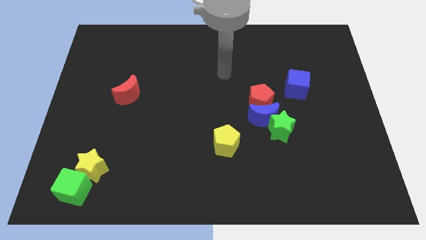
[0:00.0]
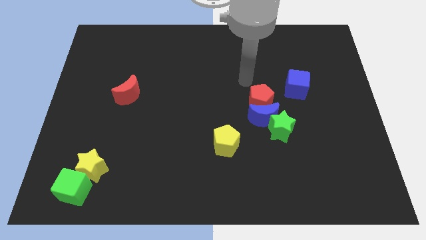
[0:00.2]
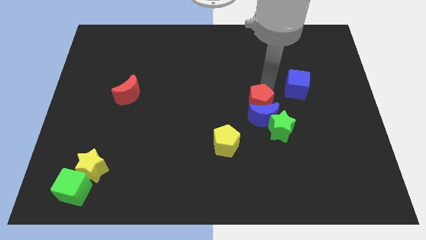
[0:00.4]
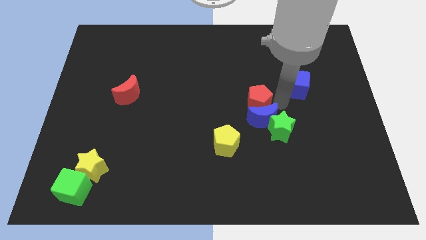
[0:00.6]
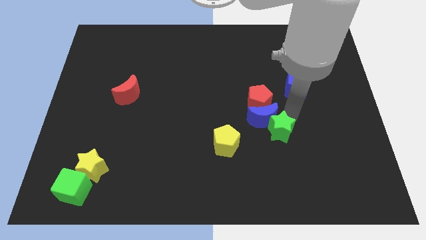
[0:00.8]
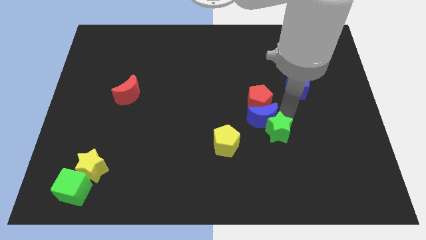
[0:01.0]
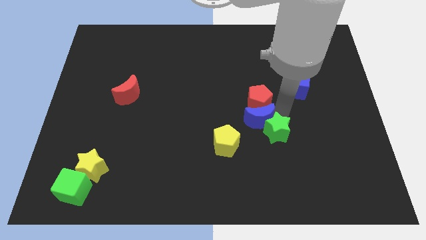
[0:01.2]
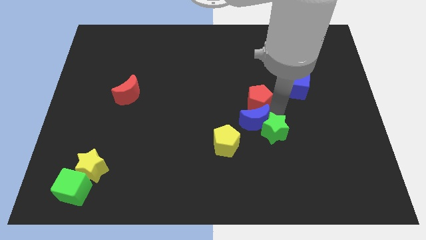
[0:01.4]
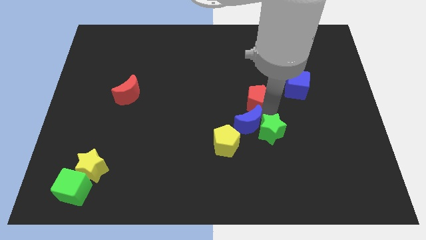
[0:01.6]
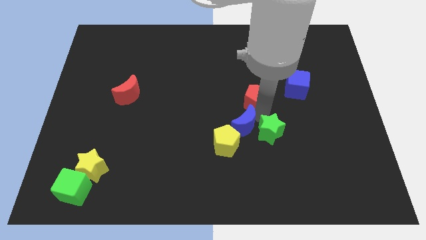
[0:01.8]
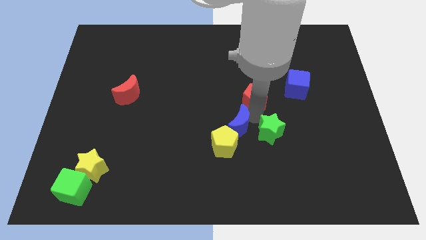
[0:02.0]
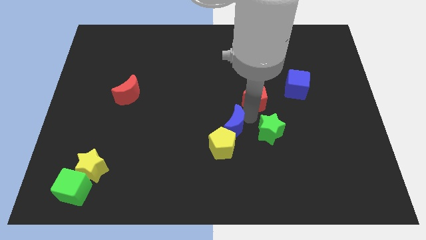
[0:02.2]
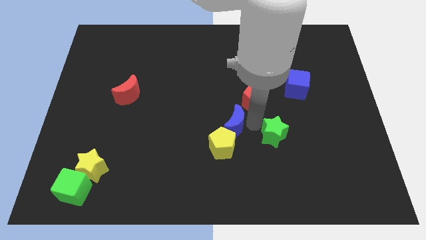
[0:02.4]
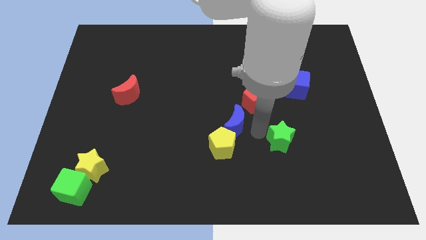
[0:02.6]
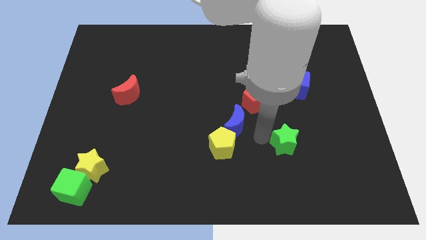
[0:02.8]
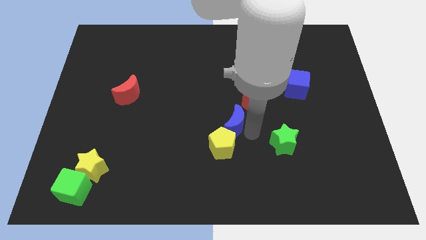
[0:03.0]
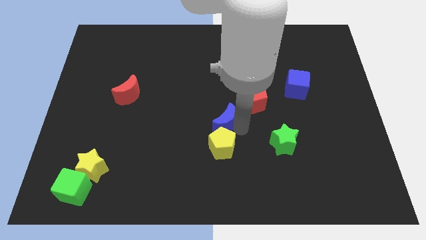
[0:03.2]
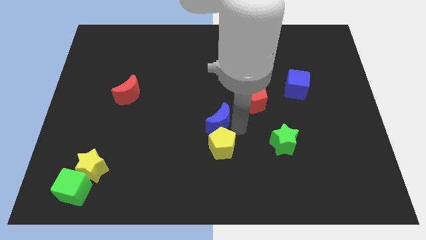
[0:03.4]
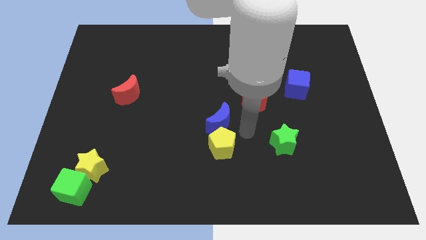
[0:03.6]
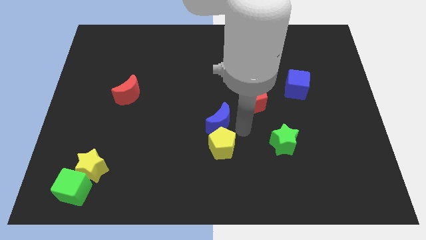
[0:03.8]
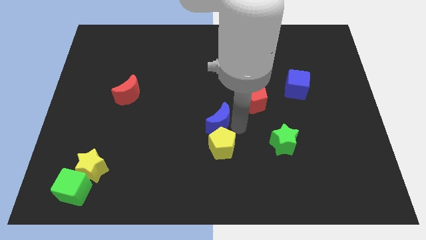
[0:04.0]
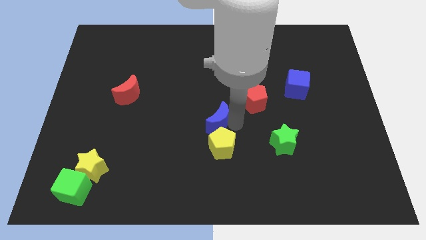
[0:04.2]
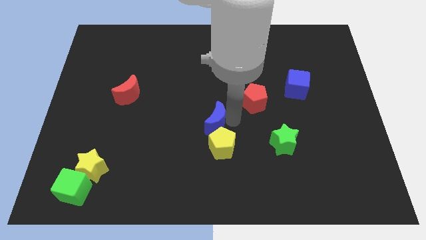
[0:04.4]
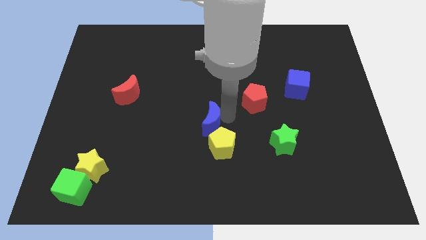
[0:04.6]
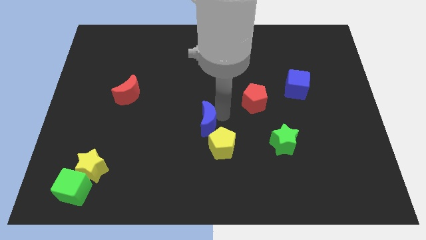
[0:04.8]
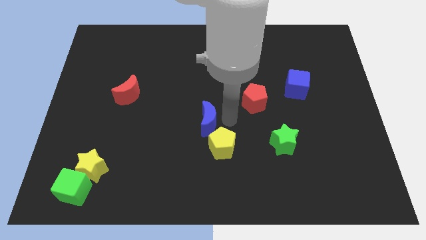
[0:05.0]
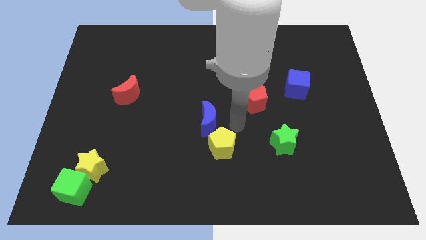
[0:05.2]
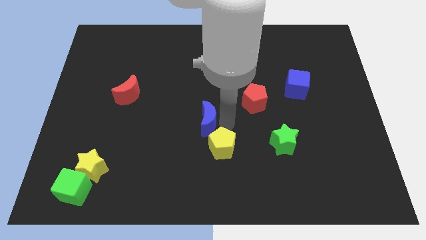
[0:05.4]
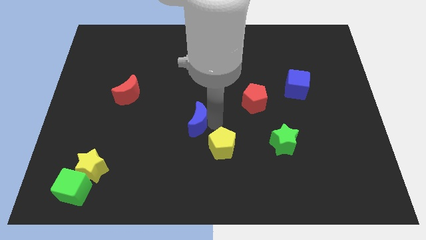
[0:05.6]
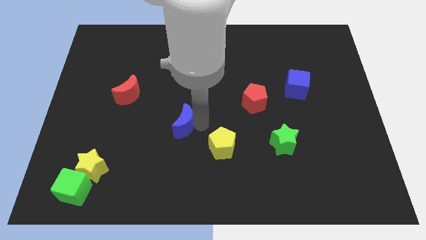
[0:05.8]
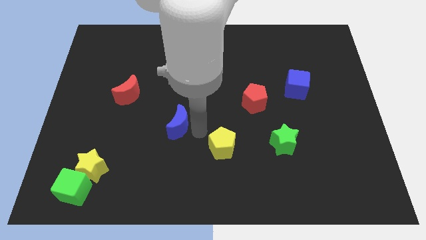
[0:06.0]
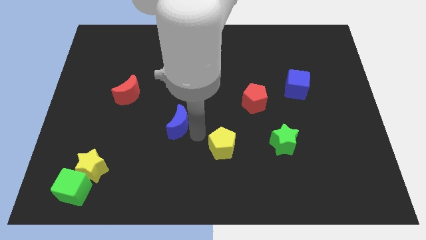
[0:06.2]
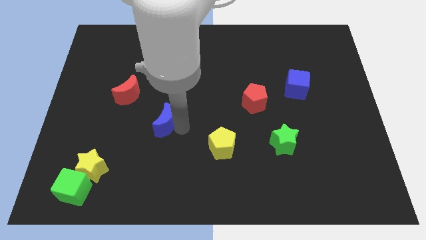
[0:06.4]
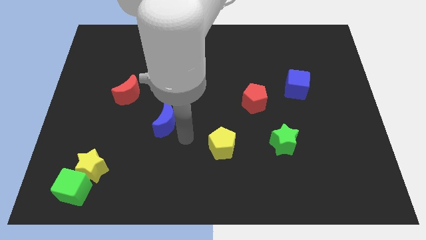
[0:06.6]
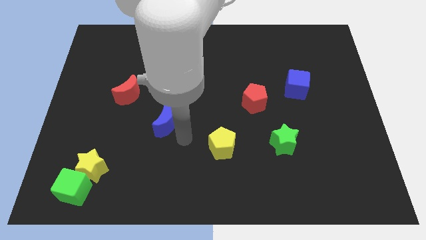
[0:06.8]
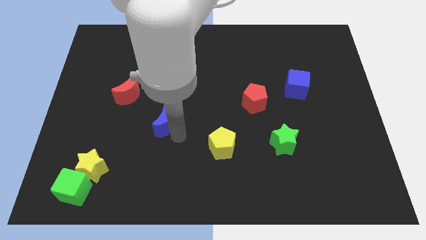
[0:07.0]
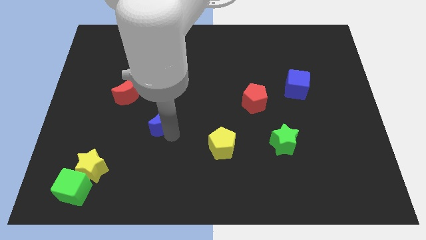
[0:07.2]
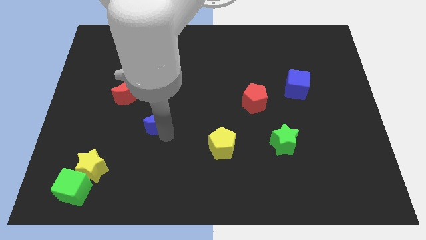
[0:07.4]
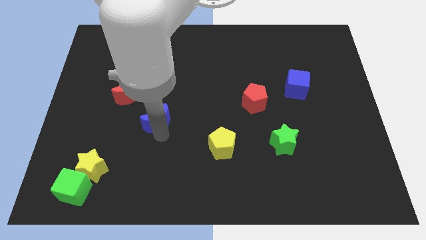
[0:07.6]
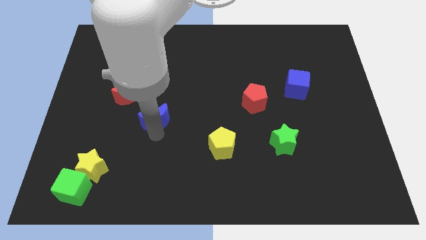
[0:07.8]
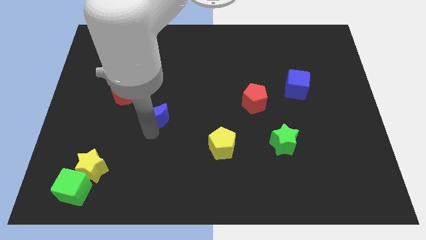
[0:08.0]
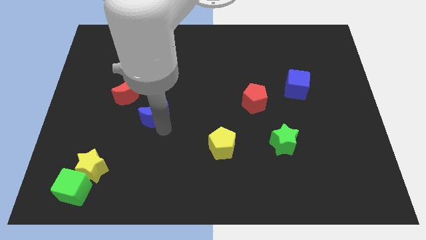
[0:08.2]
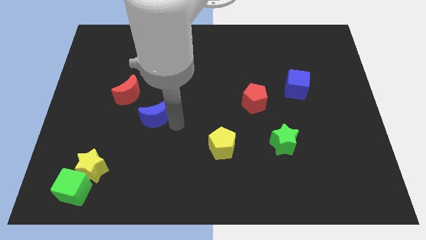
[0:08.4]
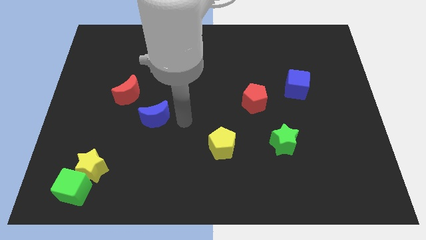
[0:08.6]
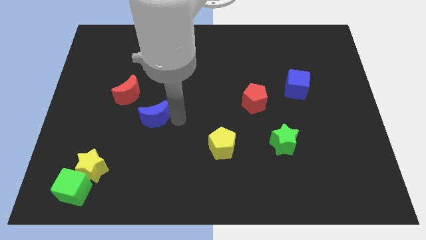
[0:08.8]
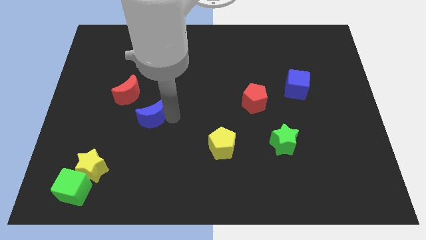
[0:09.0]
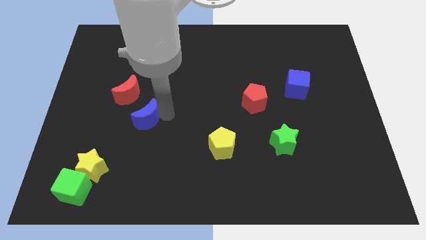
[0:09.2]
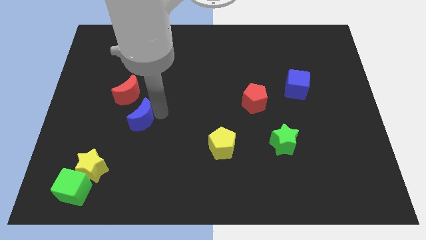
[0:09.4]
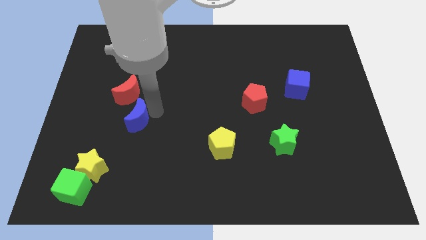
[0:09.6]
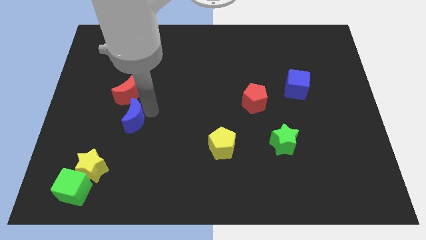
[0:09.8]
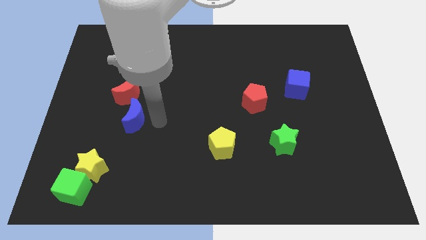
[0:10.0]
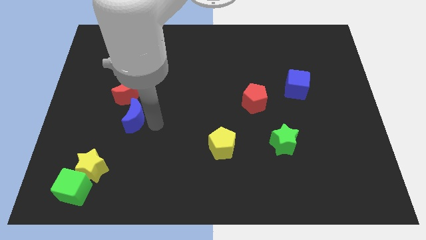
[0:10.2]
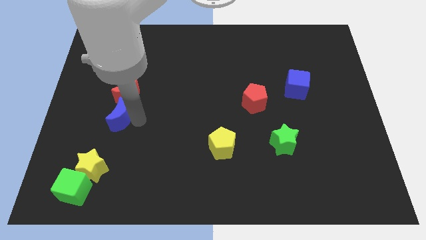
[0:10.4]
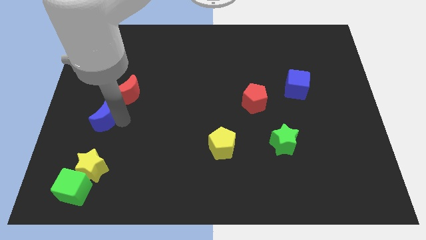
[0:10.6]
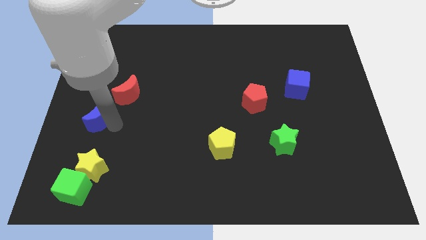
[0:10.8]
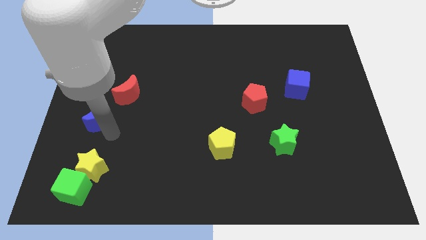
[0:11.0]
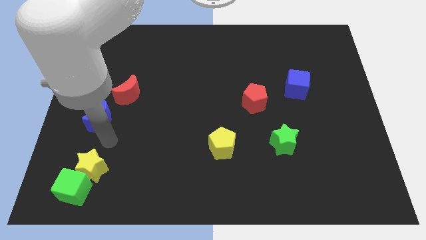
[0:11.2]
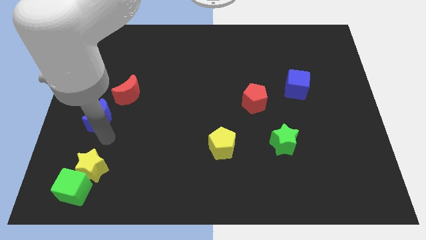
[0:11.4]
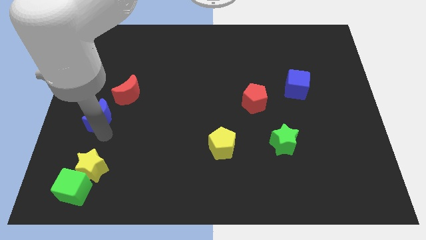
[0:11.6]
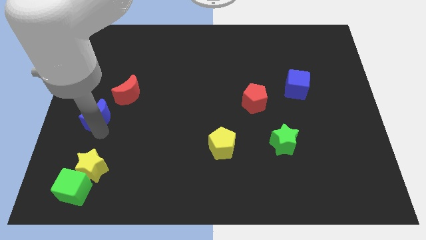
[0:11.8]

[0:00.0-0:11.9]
move the blue moon to the left side of the board
